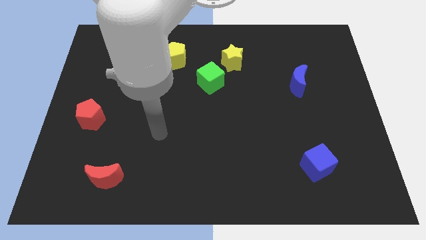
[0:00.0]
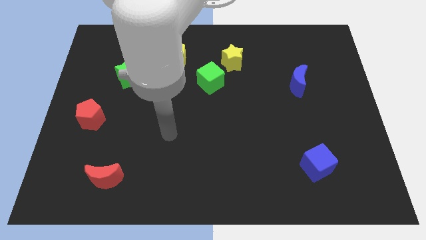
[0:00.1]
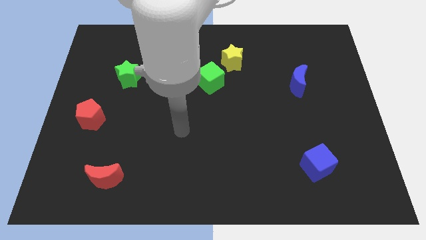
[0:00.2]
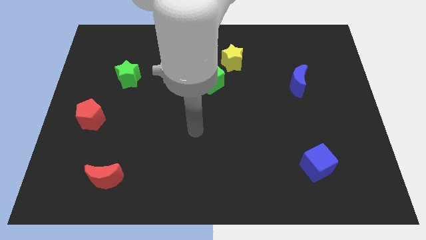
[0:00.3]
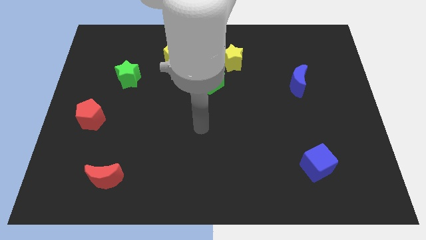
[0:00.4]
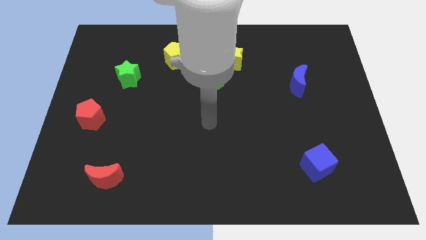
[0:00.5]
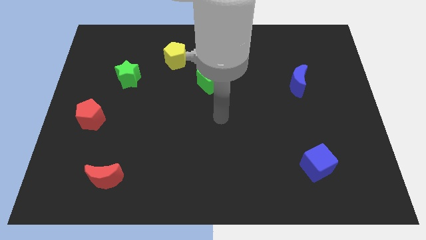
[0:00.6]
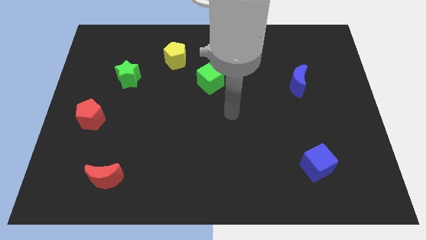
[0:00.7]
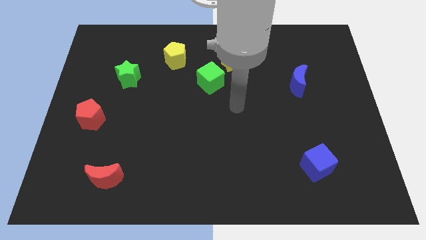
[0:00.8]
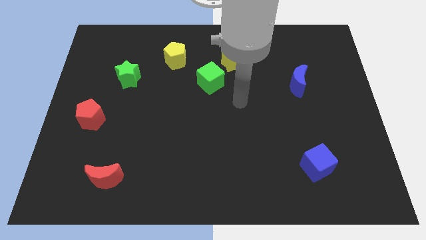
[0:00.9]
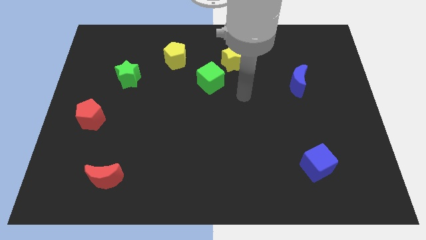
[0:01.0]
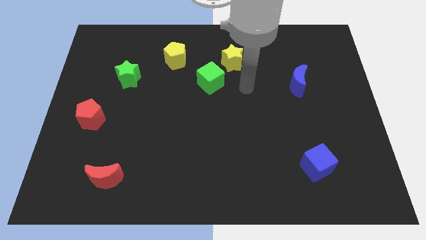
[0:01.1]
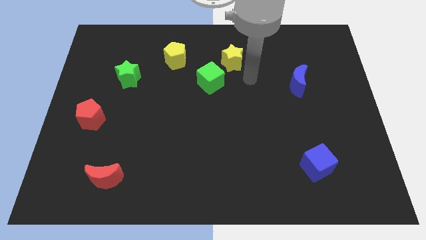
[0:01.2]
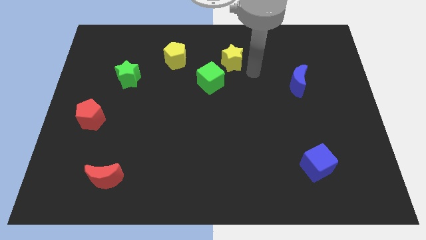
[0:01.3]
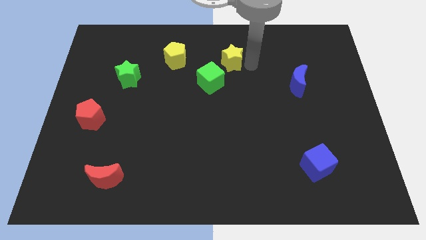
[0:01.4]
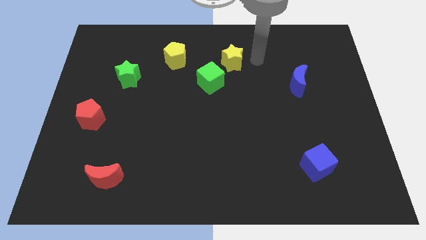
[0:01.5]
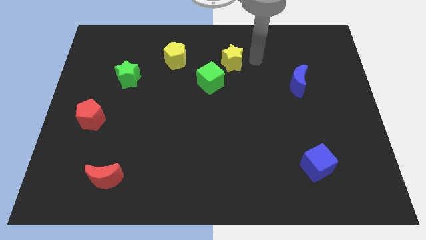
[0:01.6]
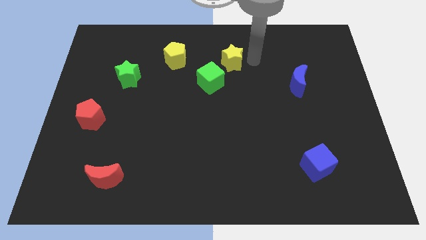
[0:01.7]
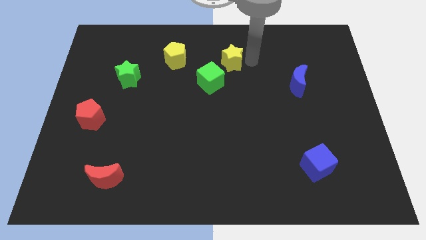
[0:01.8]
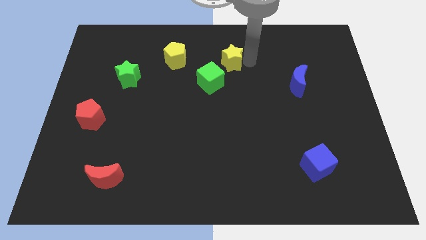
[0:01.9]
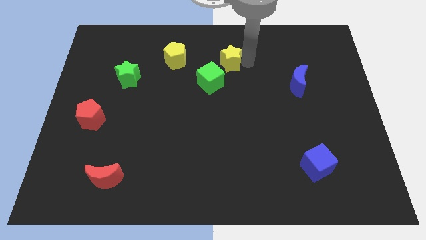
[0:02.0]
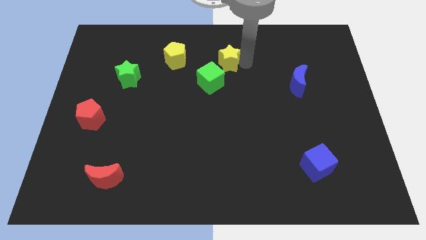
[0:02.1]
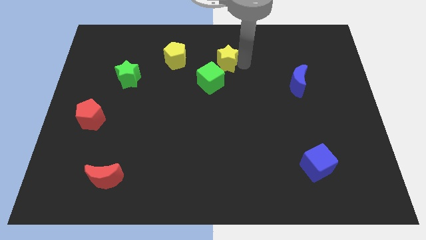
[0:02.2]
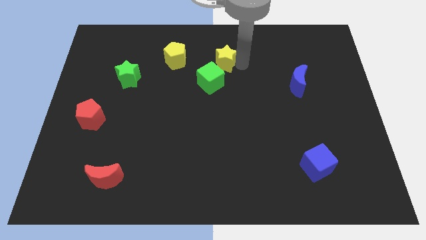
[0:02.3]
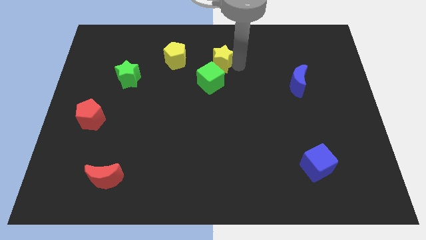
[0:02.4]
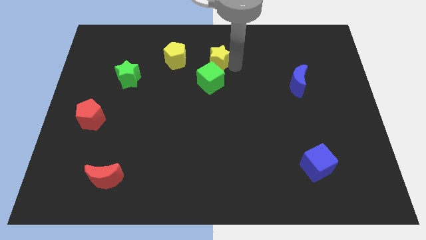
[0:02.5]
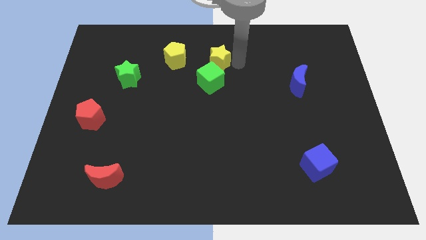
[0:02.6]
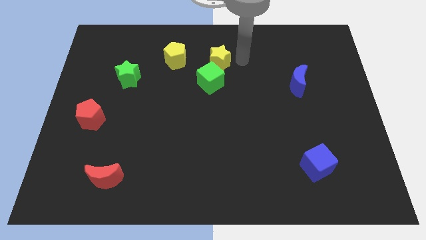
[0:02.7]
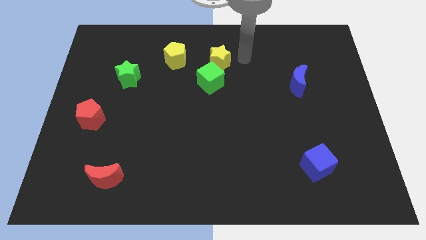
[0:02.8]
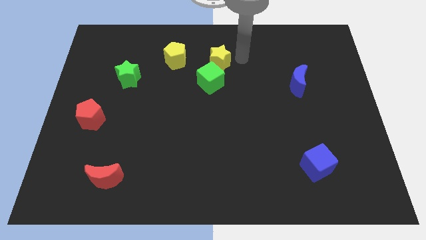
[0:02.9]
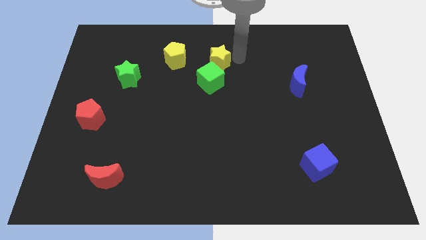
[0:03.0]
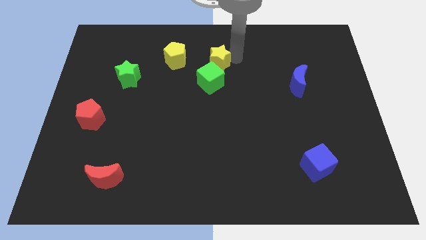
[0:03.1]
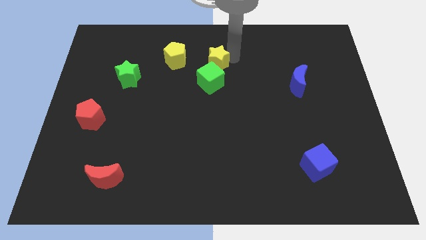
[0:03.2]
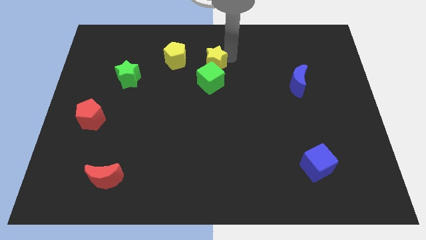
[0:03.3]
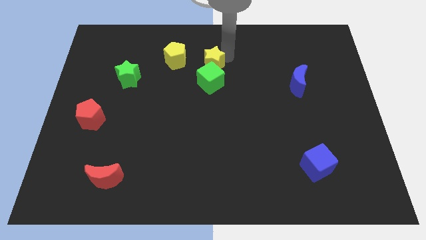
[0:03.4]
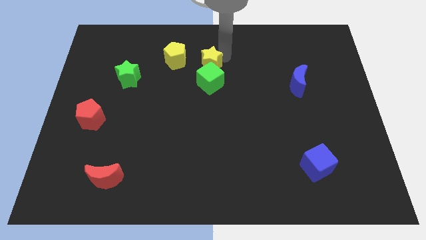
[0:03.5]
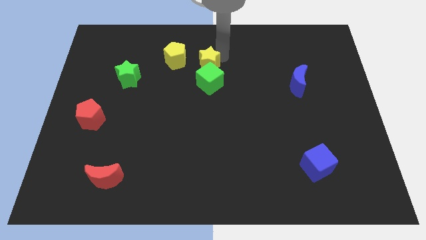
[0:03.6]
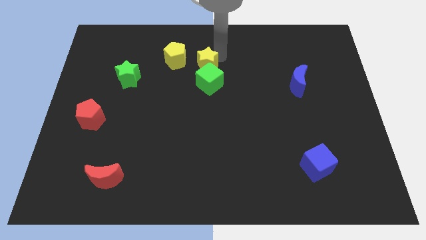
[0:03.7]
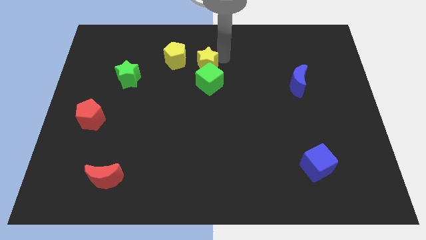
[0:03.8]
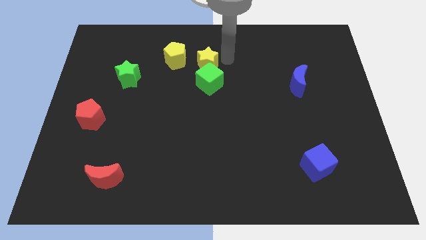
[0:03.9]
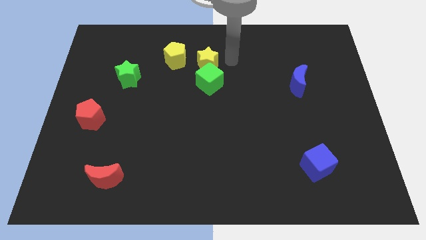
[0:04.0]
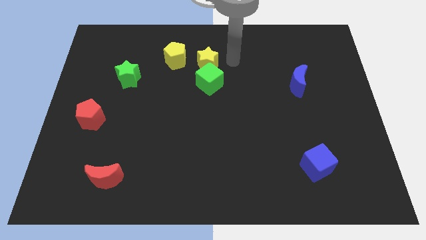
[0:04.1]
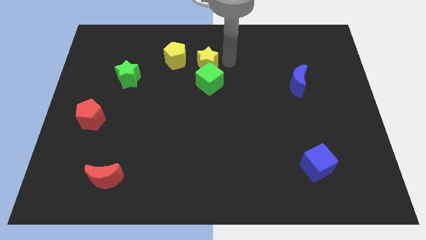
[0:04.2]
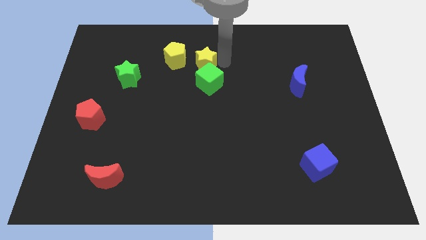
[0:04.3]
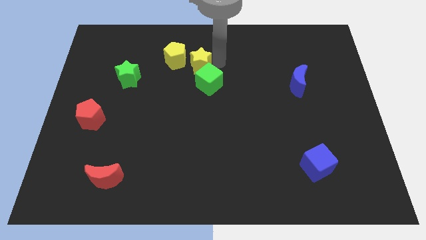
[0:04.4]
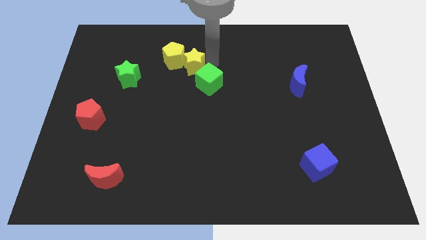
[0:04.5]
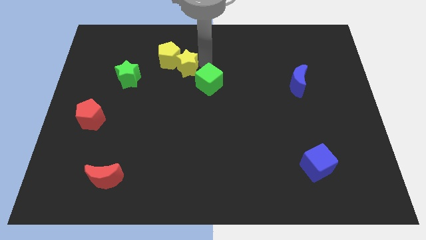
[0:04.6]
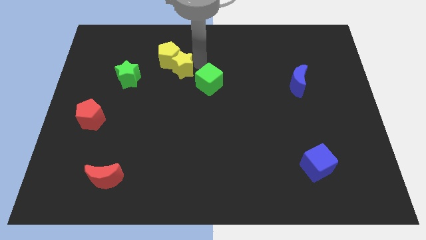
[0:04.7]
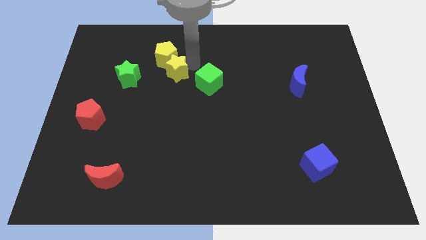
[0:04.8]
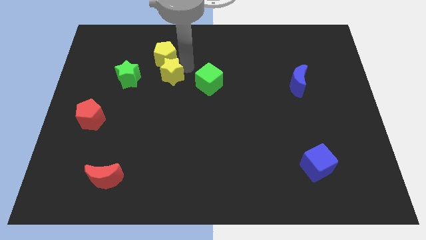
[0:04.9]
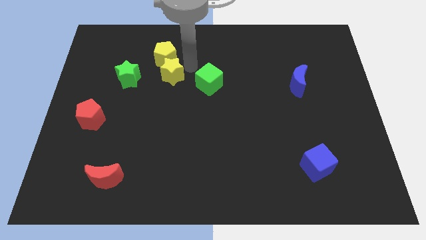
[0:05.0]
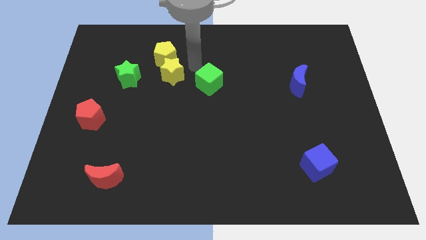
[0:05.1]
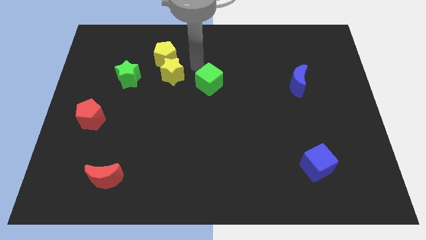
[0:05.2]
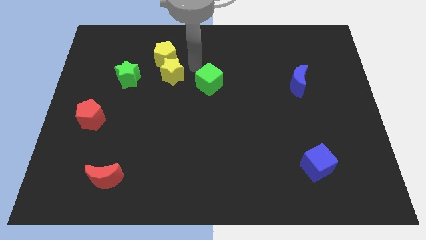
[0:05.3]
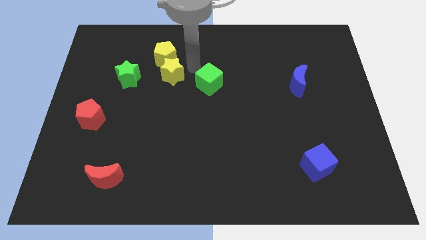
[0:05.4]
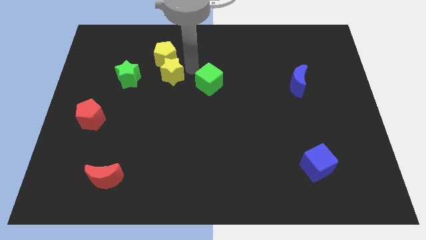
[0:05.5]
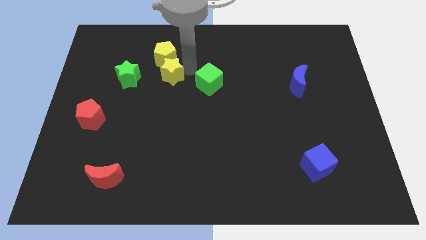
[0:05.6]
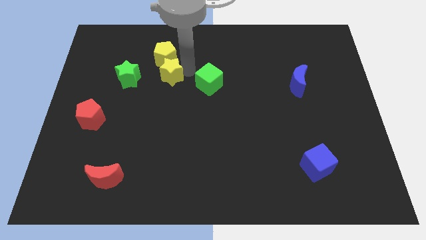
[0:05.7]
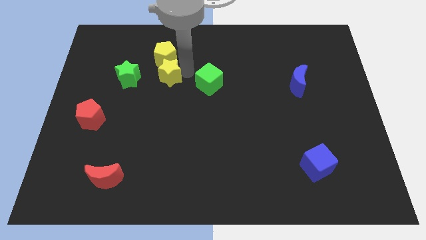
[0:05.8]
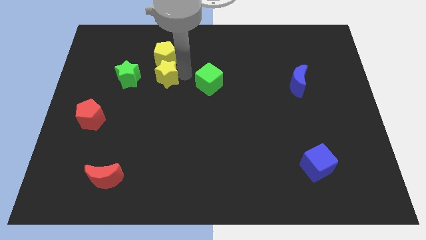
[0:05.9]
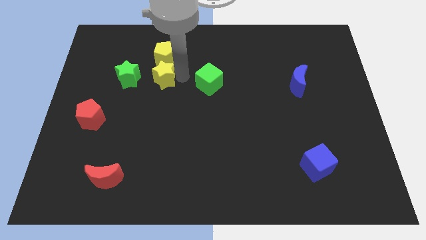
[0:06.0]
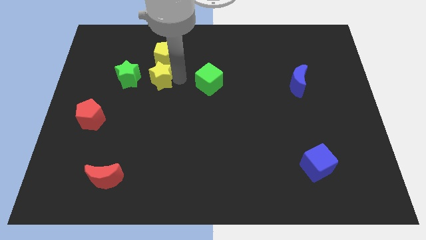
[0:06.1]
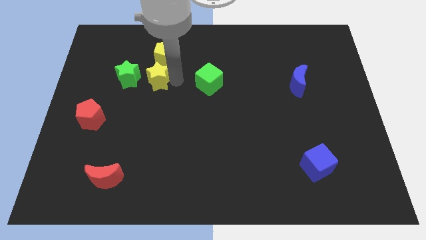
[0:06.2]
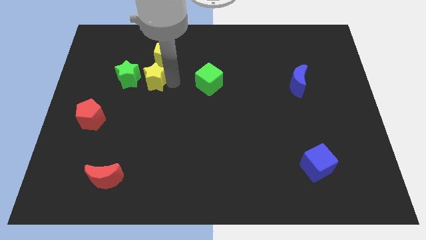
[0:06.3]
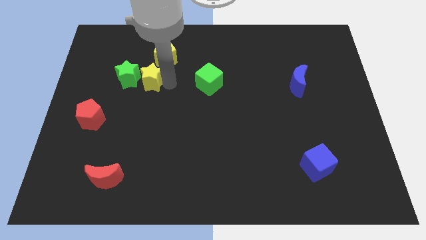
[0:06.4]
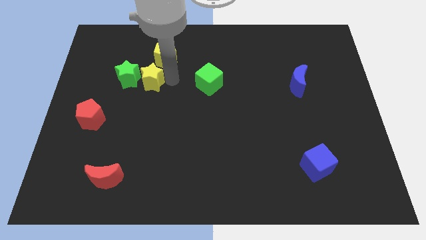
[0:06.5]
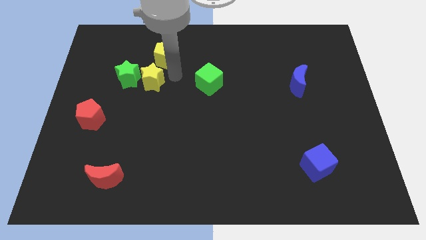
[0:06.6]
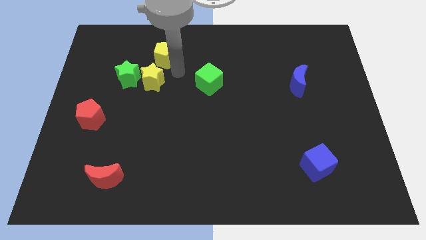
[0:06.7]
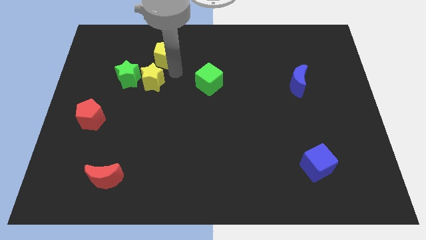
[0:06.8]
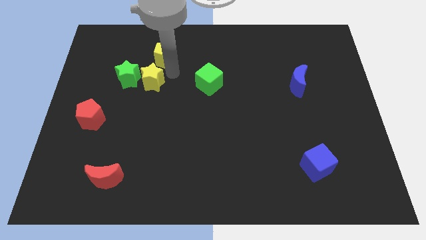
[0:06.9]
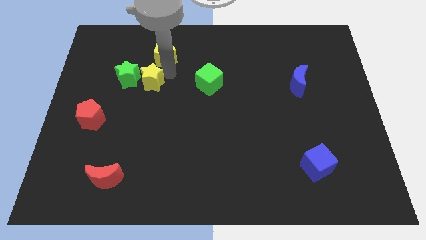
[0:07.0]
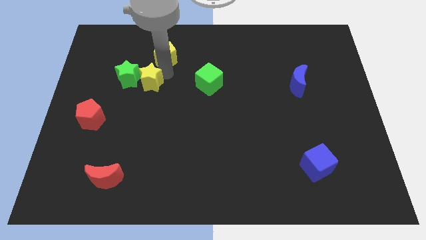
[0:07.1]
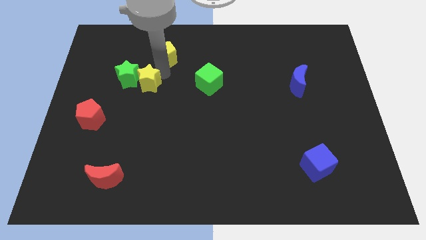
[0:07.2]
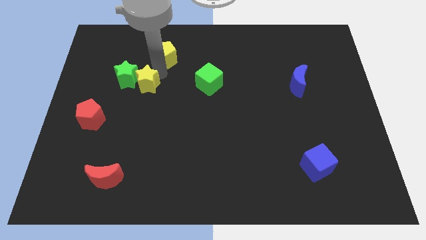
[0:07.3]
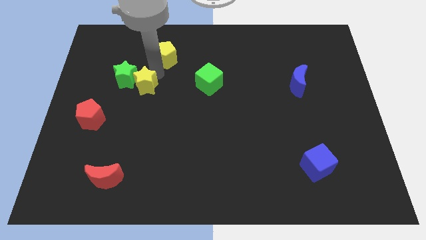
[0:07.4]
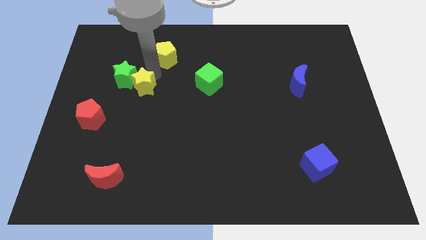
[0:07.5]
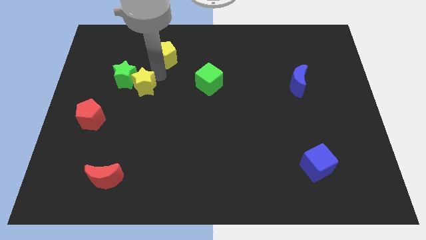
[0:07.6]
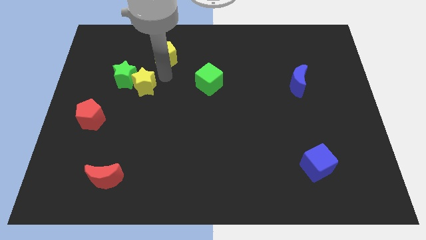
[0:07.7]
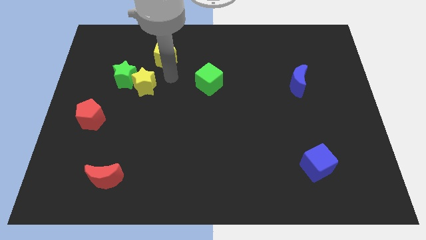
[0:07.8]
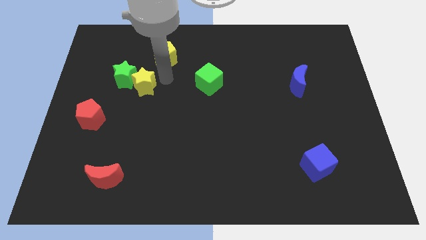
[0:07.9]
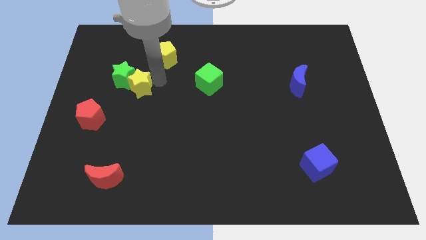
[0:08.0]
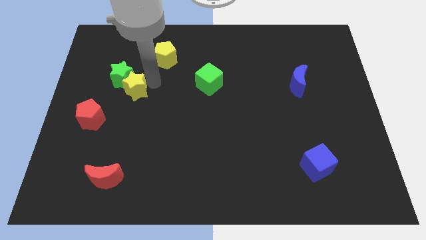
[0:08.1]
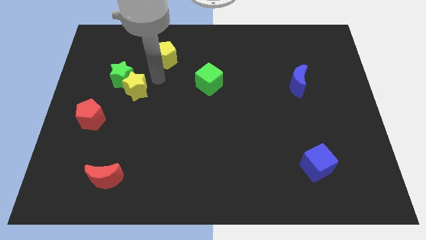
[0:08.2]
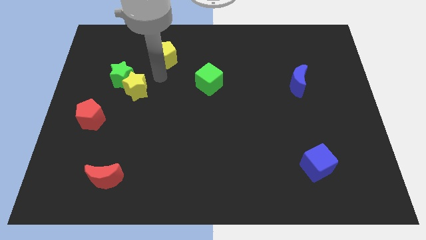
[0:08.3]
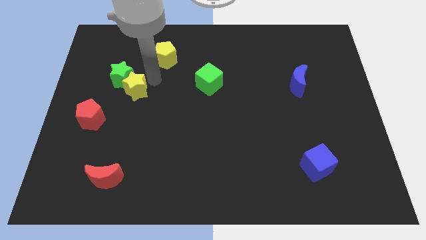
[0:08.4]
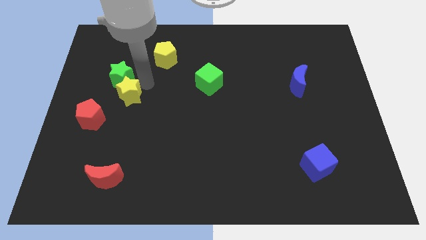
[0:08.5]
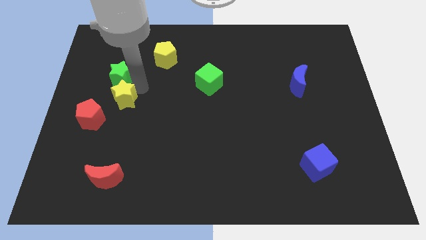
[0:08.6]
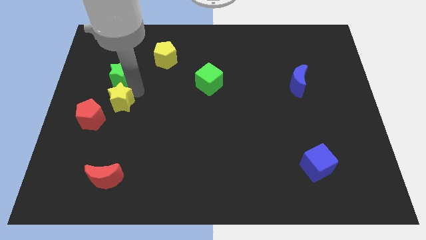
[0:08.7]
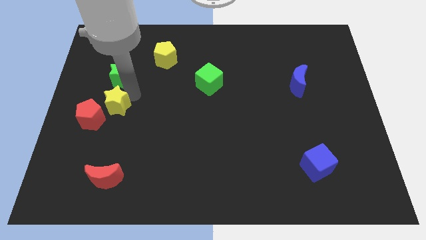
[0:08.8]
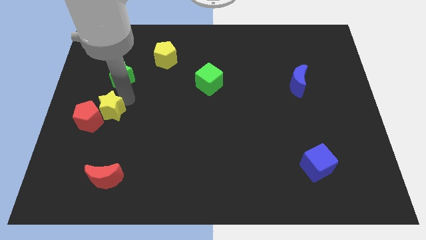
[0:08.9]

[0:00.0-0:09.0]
push the yellow star towards the red pentagon
